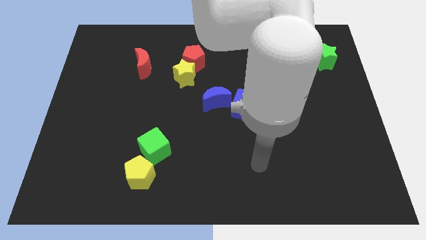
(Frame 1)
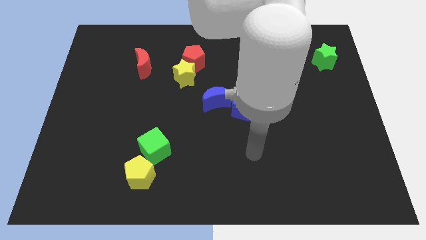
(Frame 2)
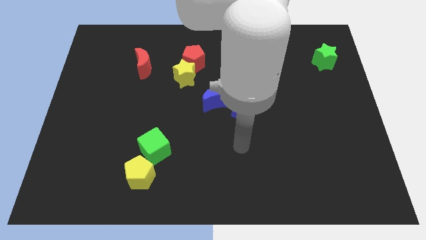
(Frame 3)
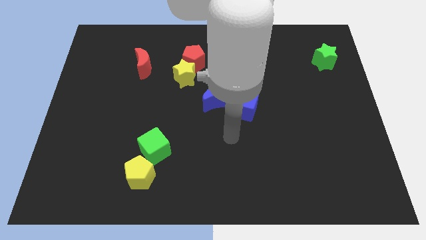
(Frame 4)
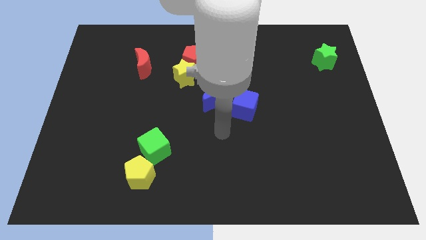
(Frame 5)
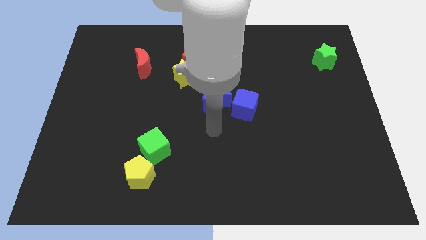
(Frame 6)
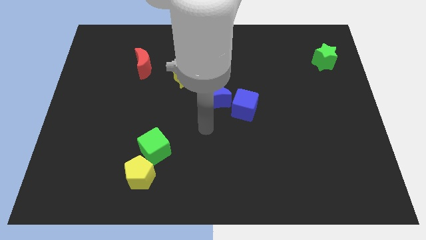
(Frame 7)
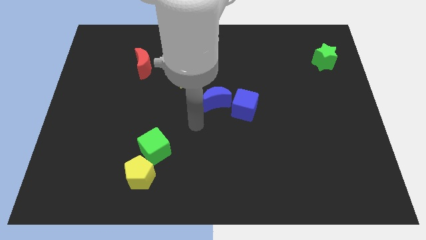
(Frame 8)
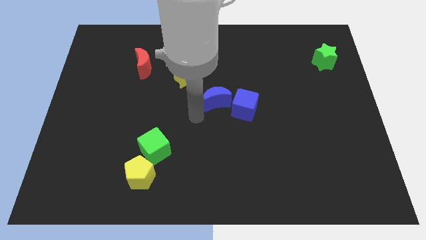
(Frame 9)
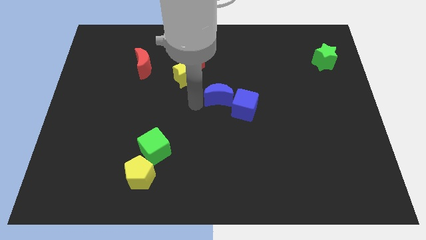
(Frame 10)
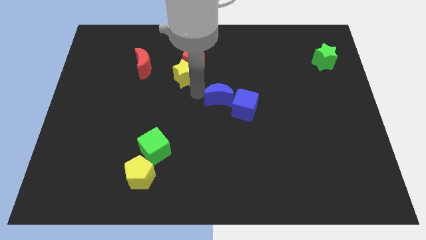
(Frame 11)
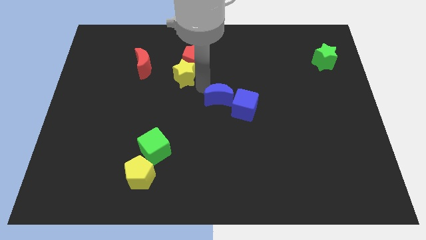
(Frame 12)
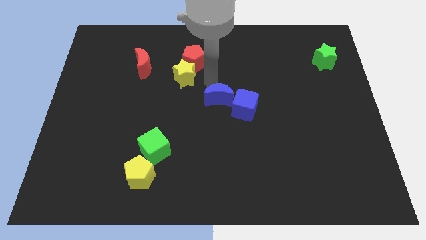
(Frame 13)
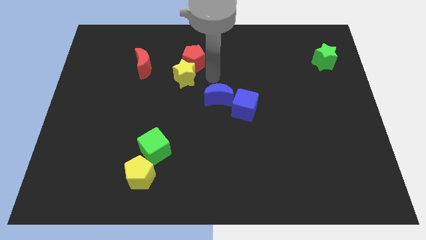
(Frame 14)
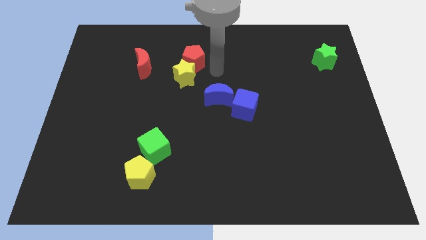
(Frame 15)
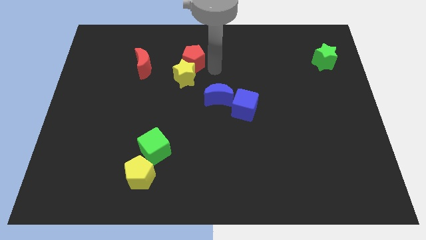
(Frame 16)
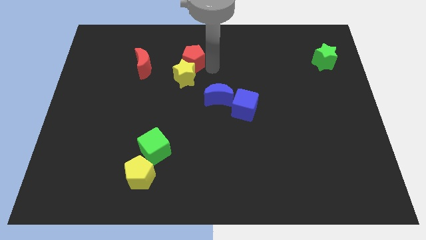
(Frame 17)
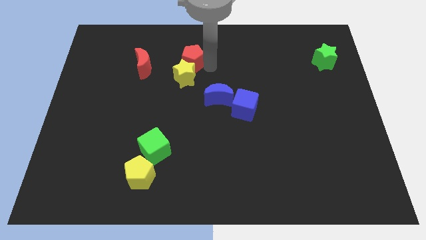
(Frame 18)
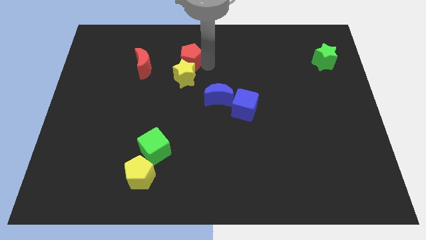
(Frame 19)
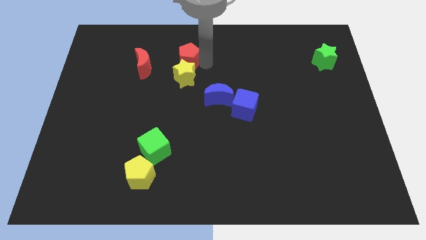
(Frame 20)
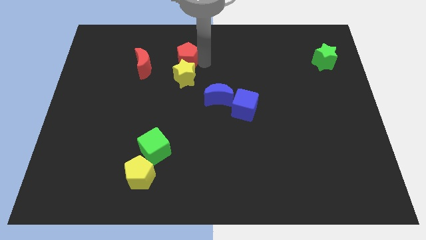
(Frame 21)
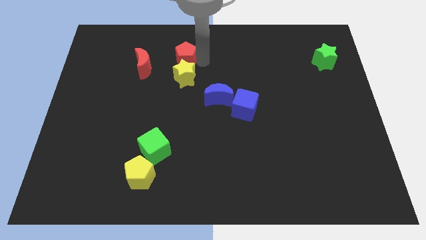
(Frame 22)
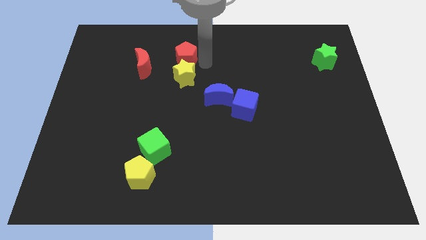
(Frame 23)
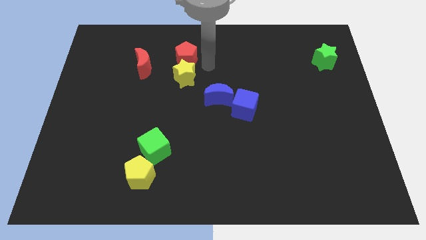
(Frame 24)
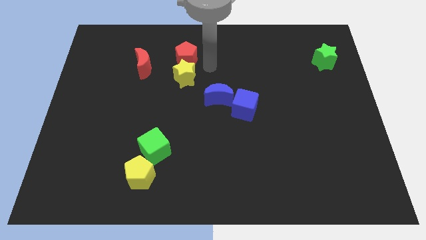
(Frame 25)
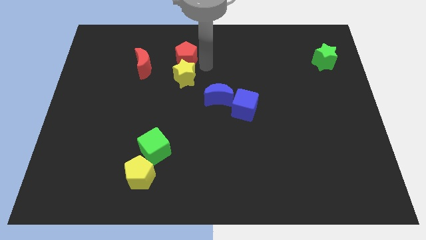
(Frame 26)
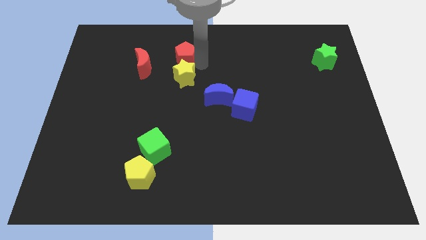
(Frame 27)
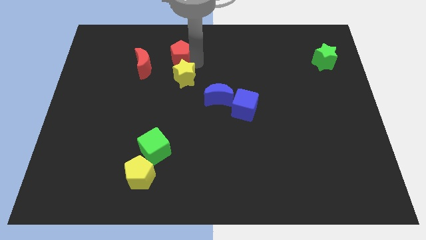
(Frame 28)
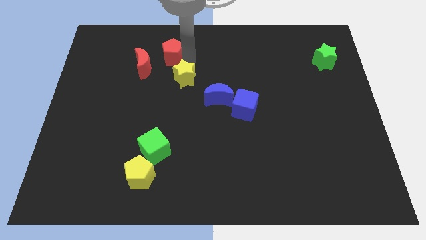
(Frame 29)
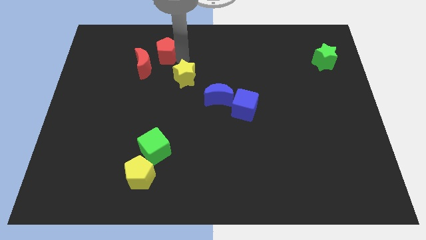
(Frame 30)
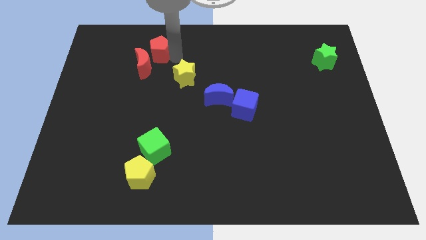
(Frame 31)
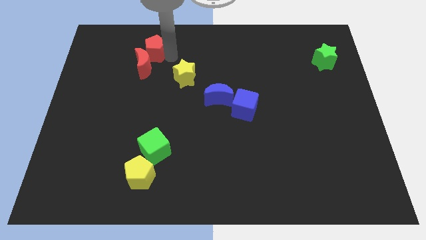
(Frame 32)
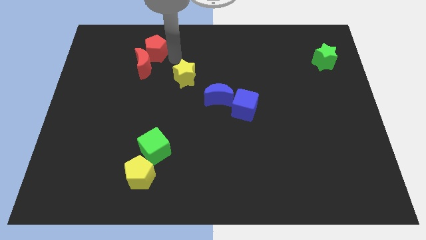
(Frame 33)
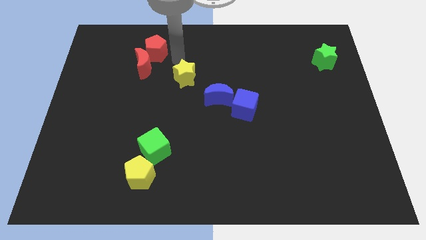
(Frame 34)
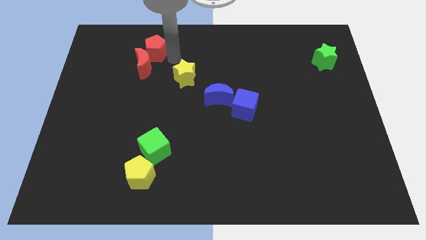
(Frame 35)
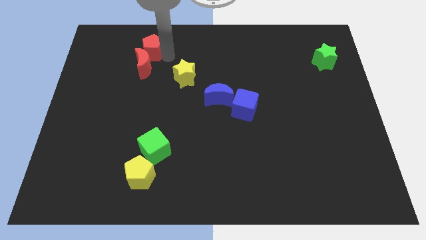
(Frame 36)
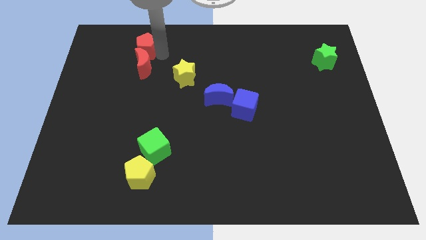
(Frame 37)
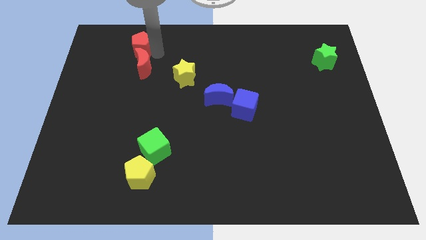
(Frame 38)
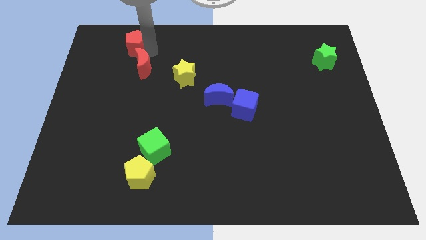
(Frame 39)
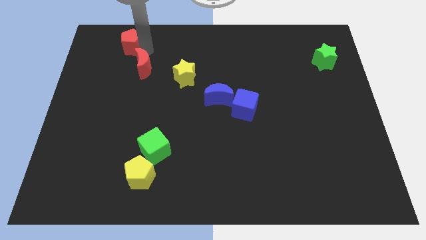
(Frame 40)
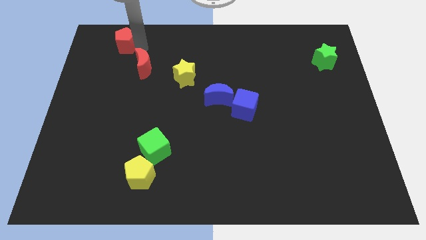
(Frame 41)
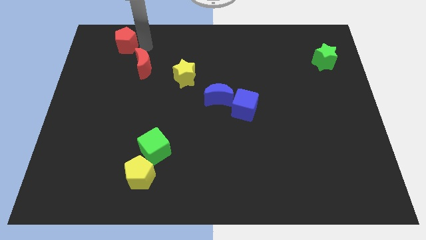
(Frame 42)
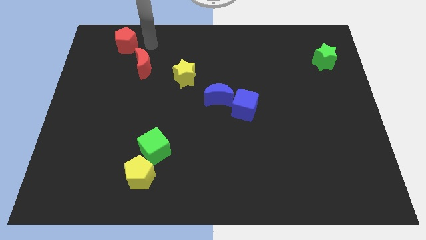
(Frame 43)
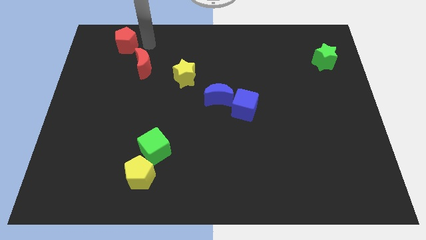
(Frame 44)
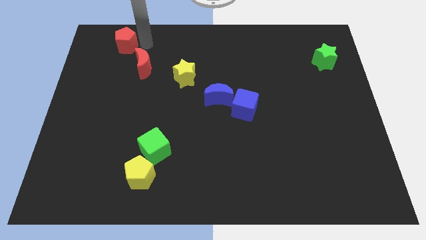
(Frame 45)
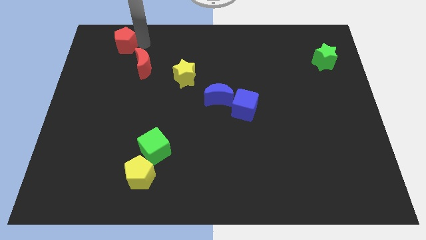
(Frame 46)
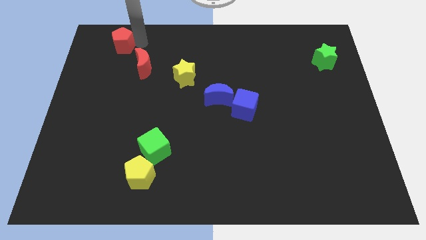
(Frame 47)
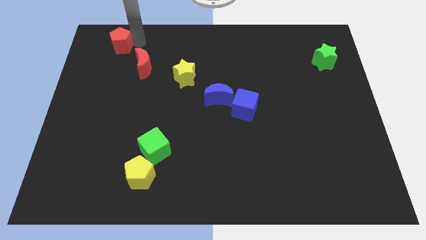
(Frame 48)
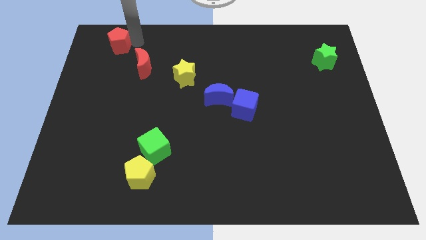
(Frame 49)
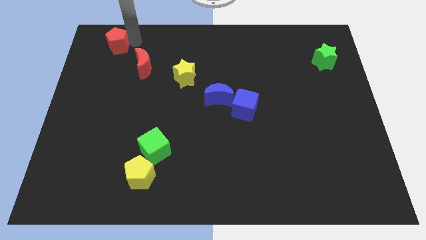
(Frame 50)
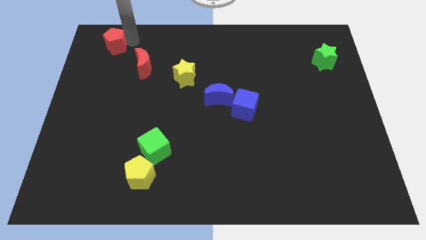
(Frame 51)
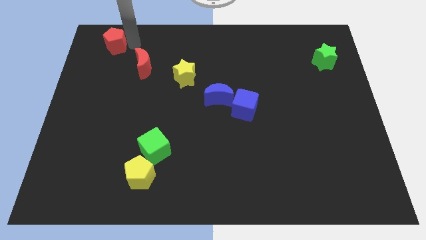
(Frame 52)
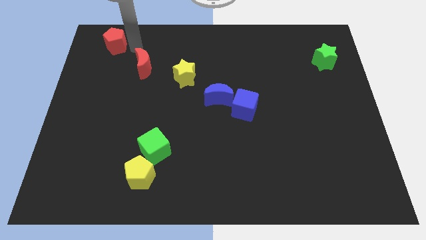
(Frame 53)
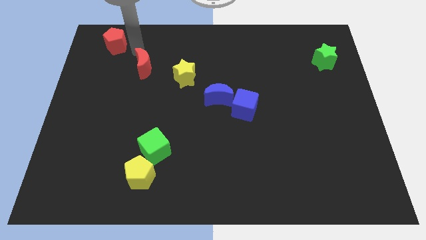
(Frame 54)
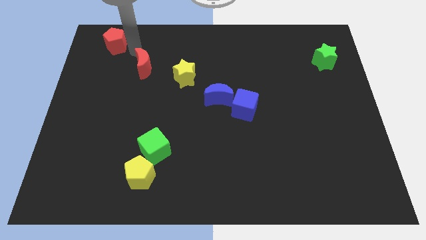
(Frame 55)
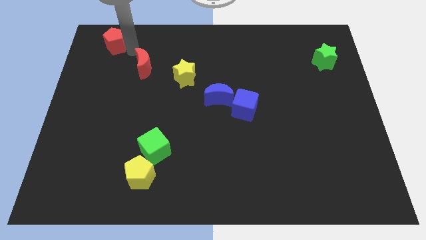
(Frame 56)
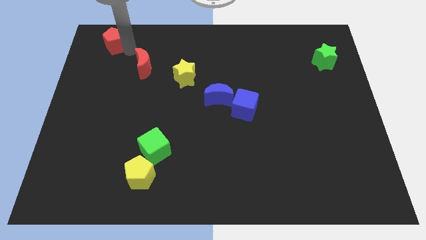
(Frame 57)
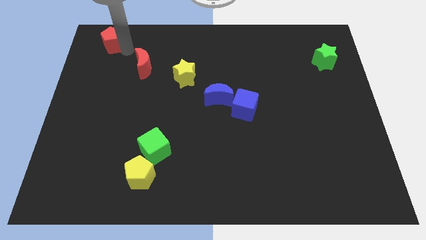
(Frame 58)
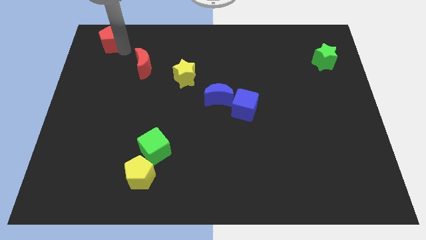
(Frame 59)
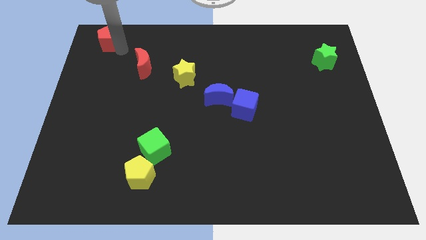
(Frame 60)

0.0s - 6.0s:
put the red pentagon to the top left of the board

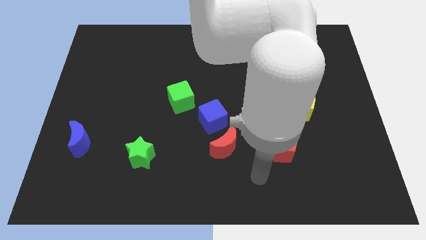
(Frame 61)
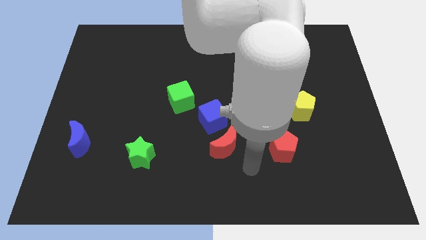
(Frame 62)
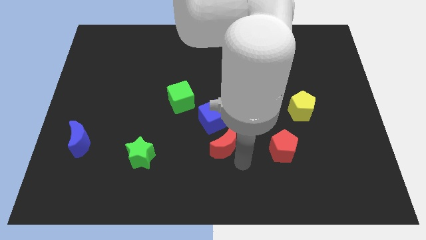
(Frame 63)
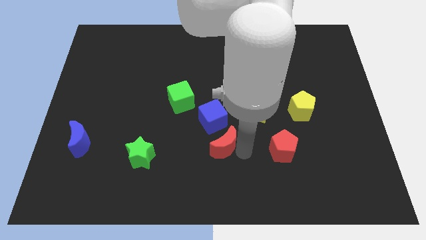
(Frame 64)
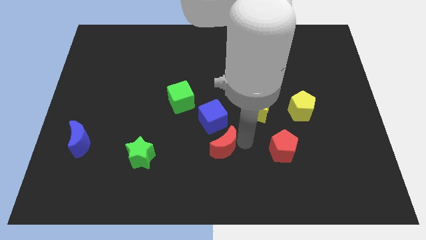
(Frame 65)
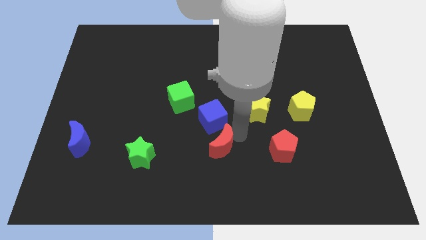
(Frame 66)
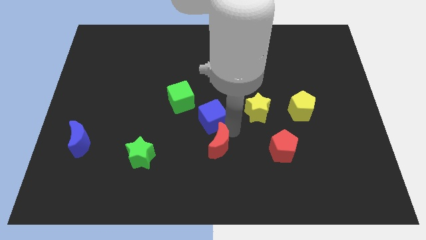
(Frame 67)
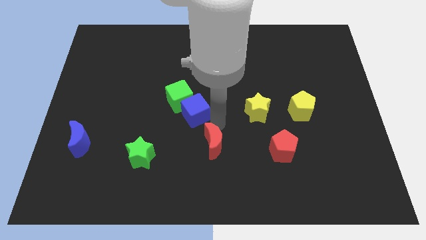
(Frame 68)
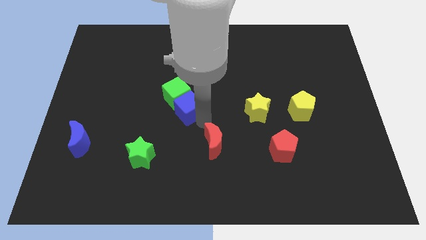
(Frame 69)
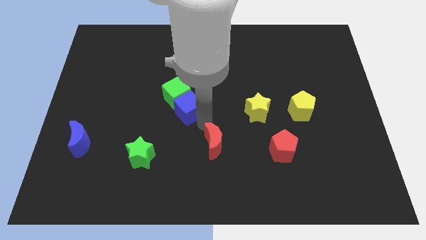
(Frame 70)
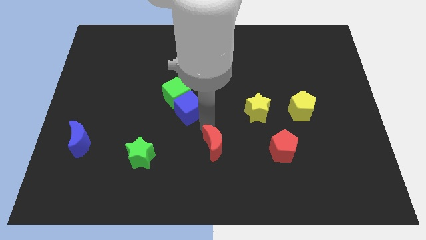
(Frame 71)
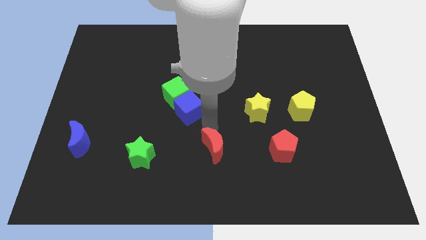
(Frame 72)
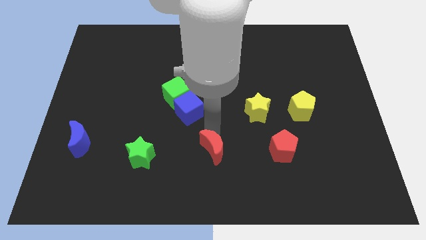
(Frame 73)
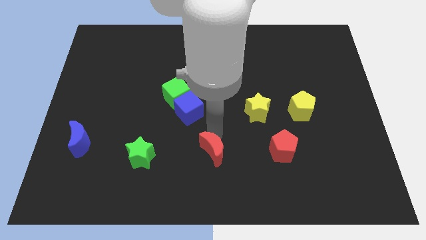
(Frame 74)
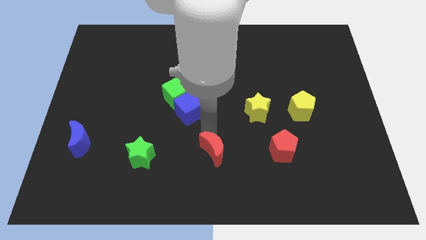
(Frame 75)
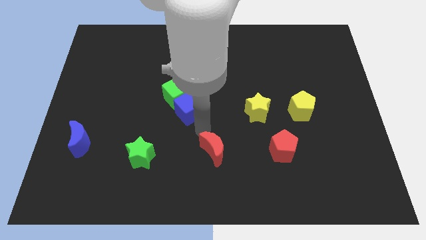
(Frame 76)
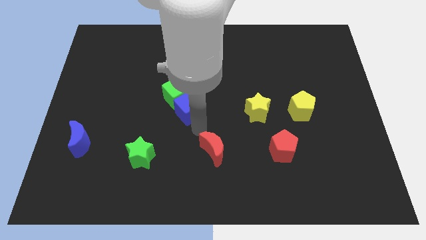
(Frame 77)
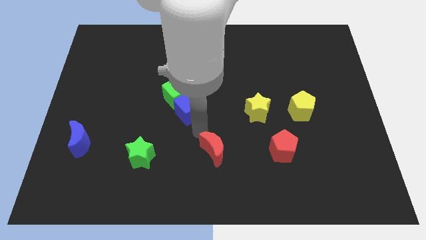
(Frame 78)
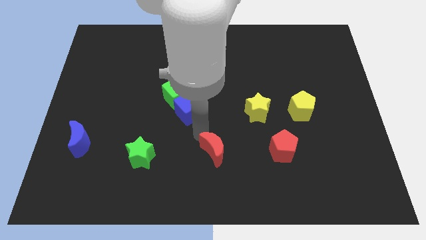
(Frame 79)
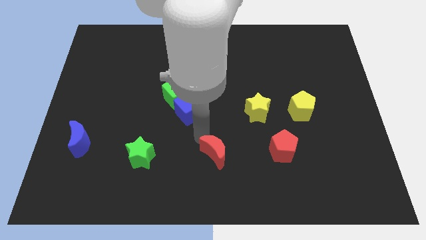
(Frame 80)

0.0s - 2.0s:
push the red moon to the bottom
